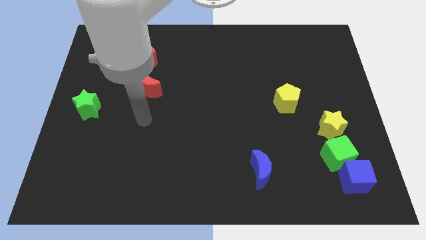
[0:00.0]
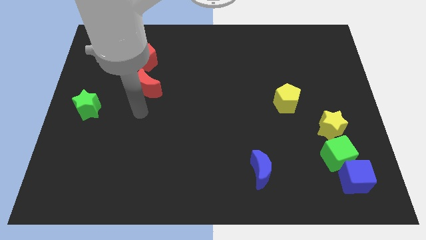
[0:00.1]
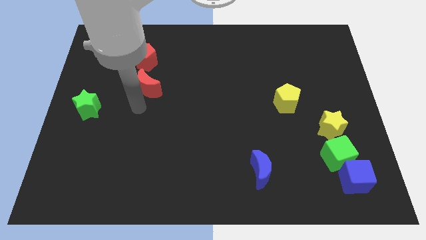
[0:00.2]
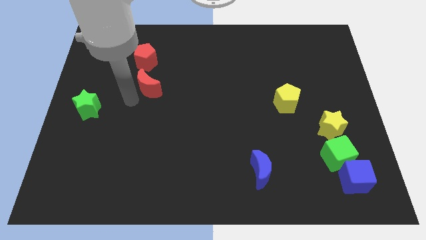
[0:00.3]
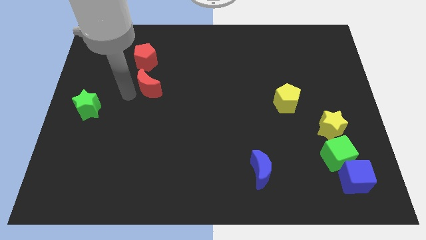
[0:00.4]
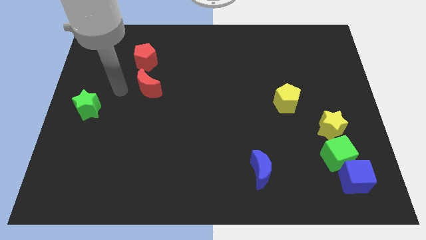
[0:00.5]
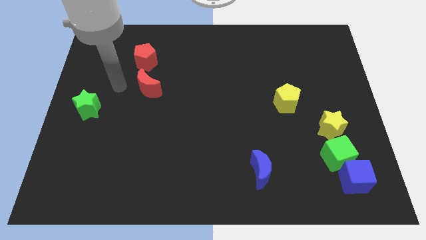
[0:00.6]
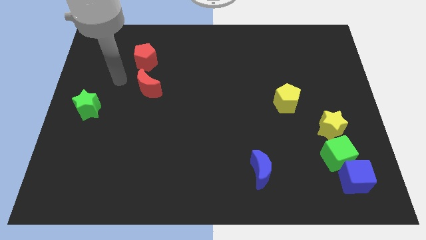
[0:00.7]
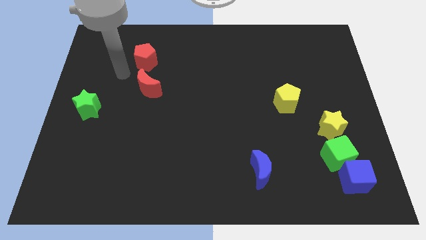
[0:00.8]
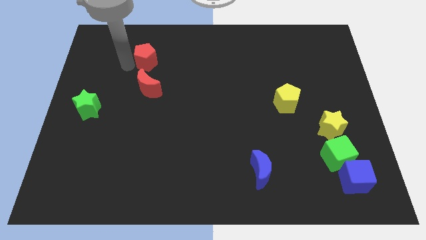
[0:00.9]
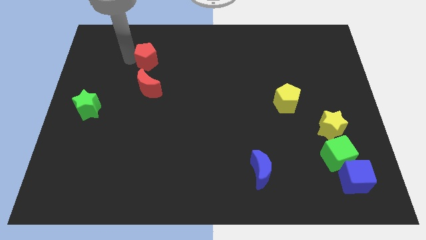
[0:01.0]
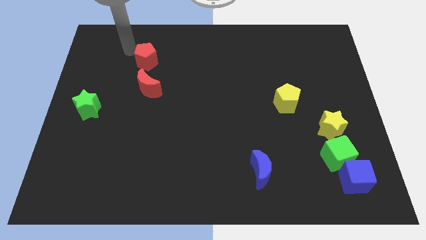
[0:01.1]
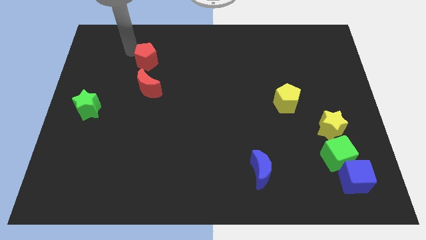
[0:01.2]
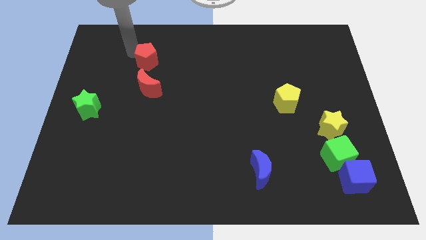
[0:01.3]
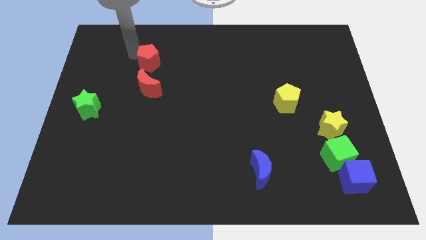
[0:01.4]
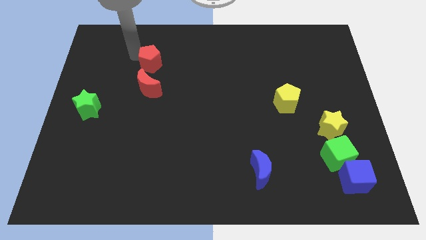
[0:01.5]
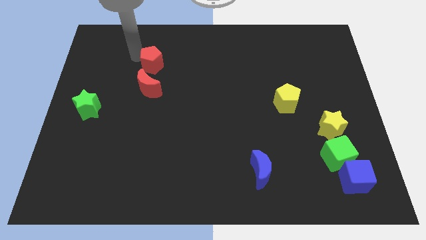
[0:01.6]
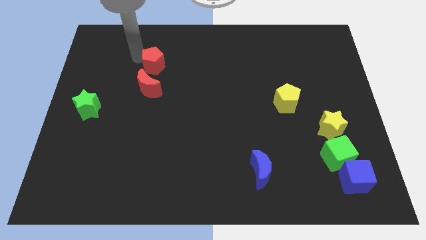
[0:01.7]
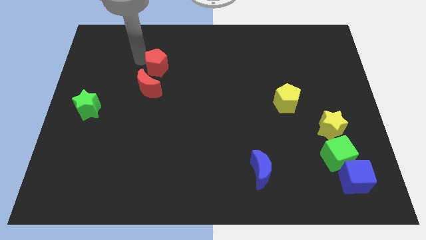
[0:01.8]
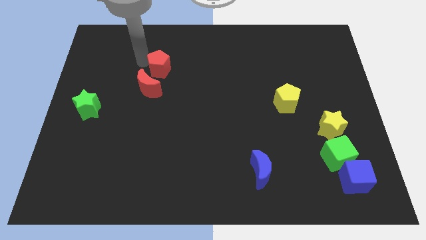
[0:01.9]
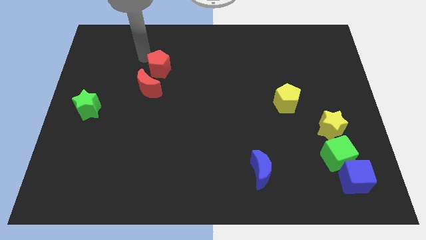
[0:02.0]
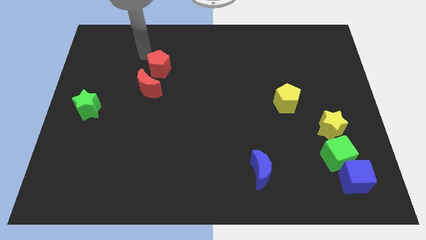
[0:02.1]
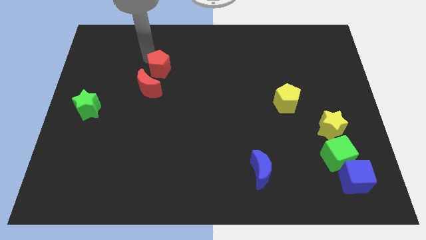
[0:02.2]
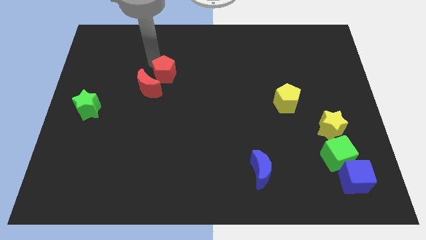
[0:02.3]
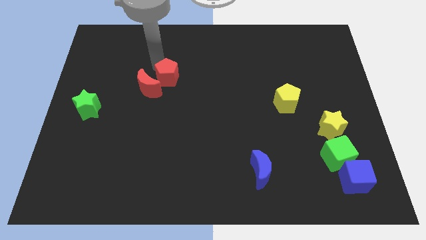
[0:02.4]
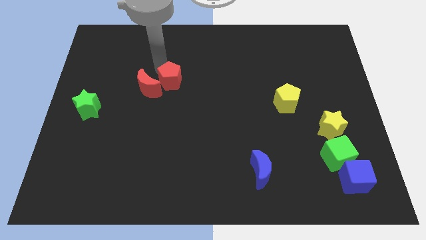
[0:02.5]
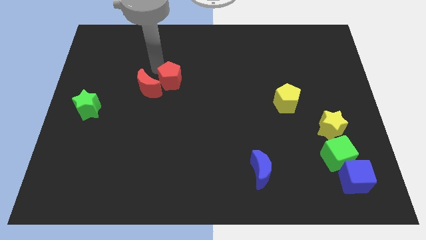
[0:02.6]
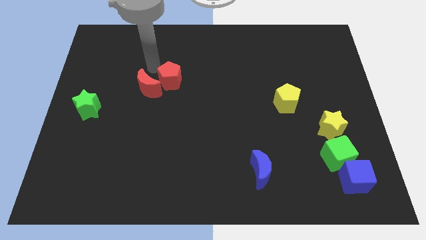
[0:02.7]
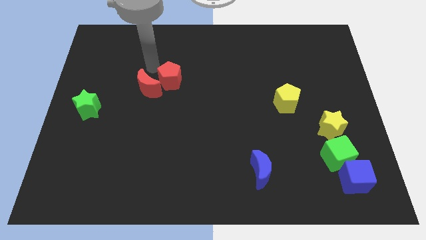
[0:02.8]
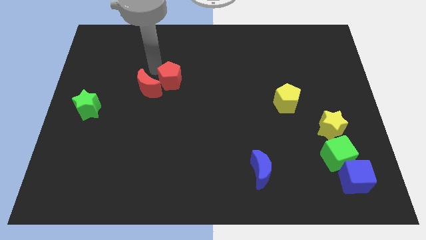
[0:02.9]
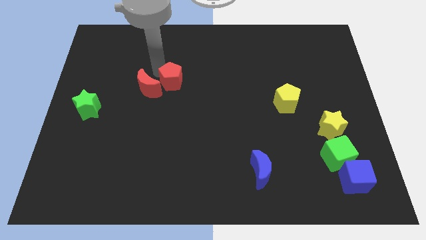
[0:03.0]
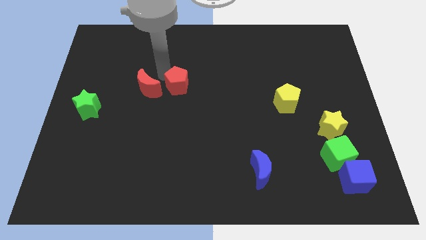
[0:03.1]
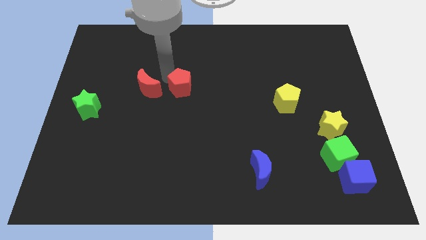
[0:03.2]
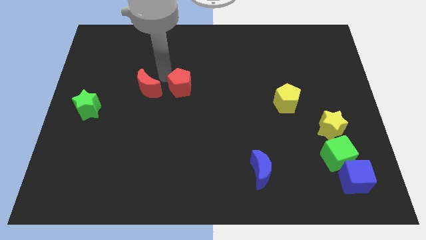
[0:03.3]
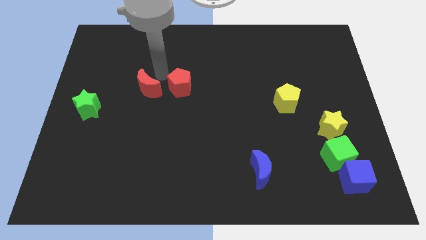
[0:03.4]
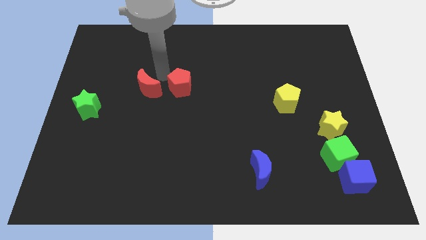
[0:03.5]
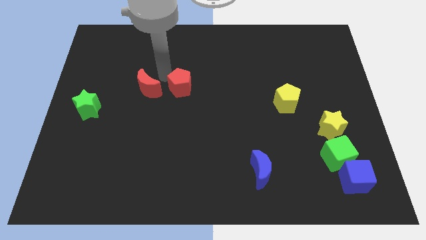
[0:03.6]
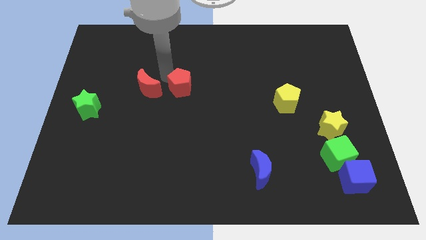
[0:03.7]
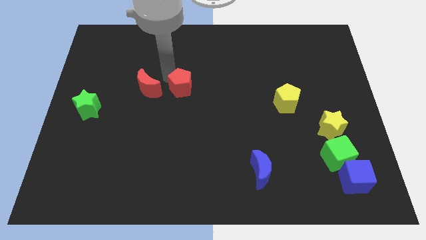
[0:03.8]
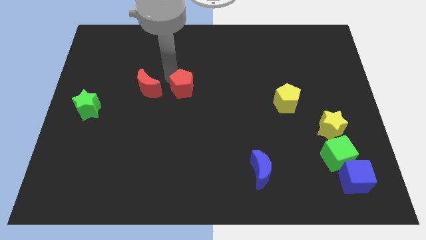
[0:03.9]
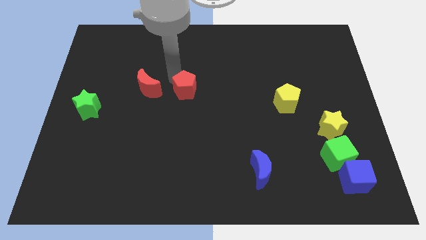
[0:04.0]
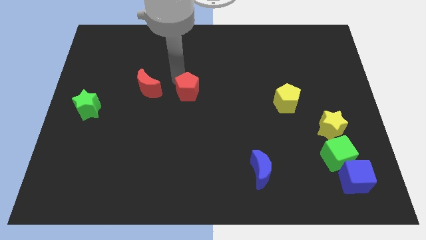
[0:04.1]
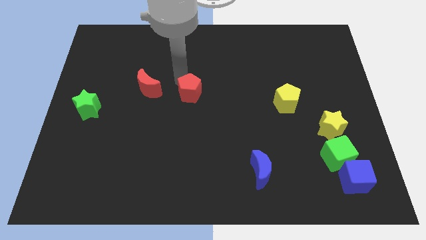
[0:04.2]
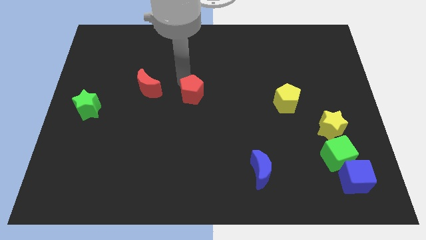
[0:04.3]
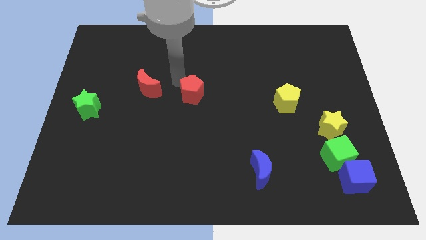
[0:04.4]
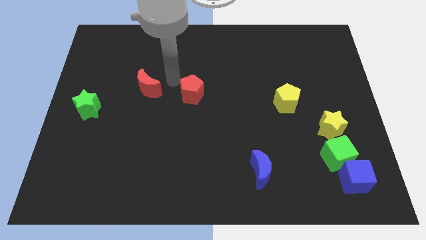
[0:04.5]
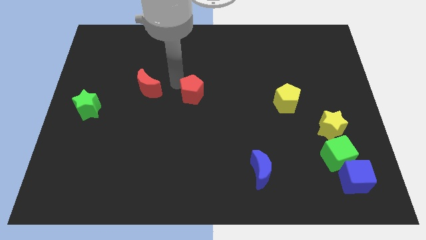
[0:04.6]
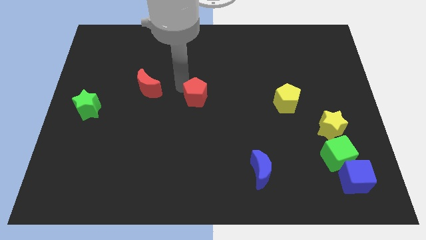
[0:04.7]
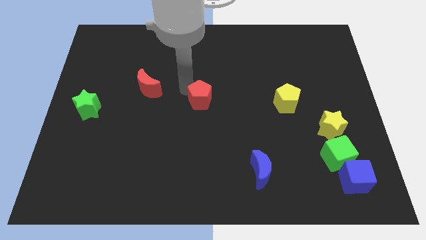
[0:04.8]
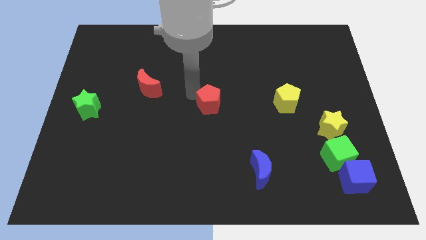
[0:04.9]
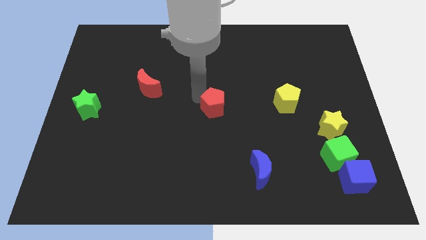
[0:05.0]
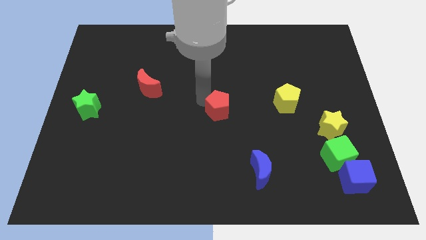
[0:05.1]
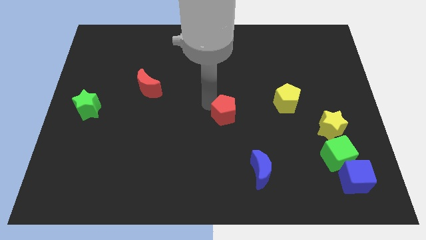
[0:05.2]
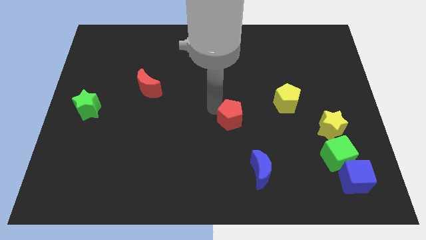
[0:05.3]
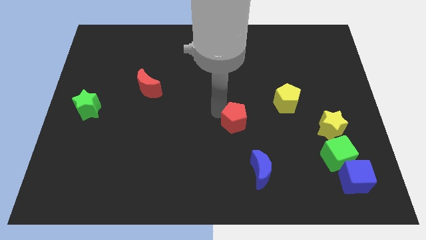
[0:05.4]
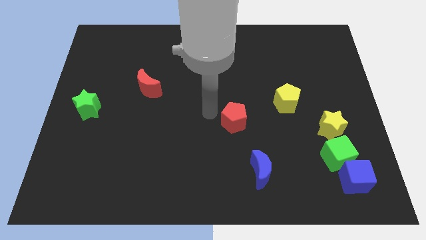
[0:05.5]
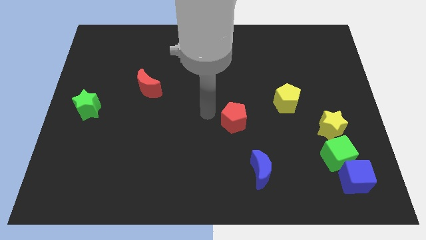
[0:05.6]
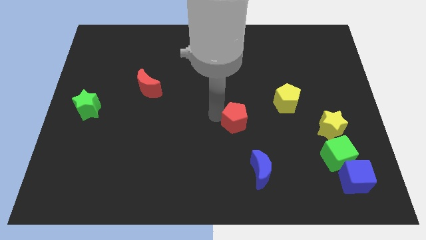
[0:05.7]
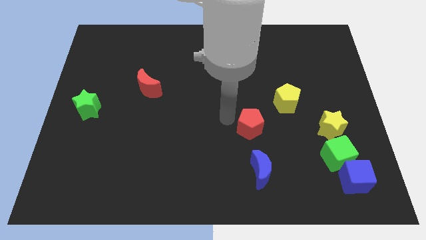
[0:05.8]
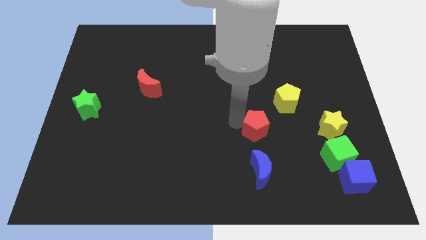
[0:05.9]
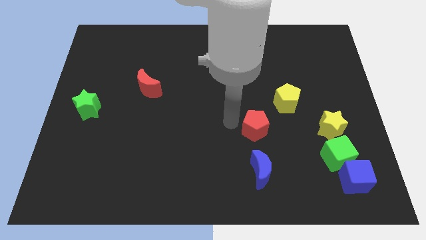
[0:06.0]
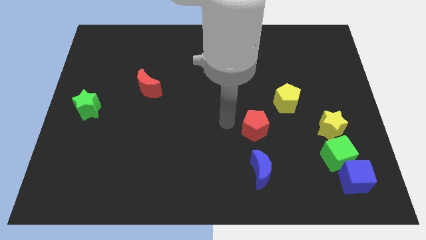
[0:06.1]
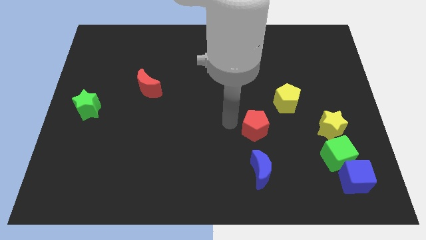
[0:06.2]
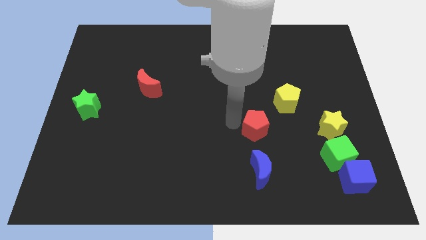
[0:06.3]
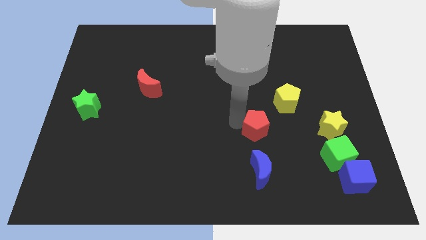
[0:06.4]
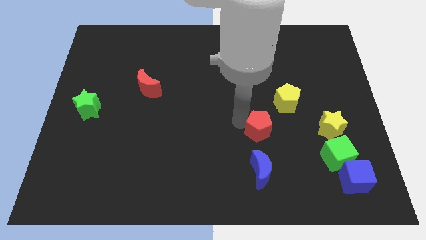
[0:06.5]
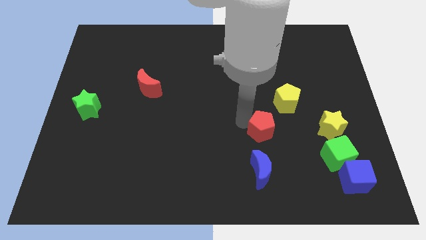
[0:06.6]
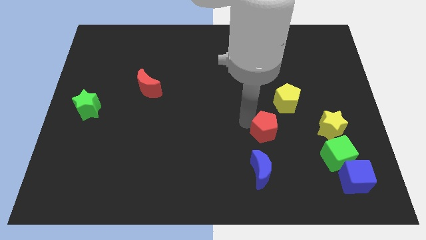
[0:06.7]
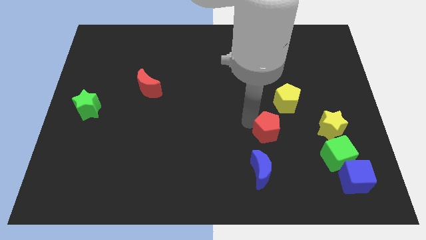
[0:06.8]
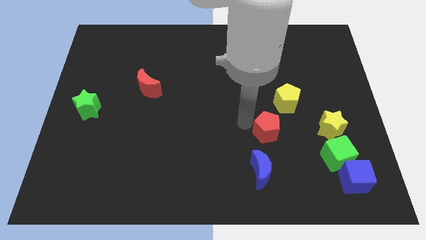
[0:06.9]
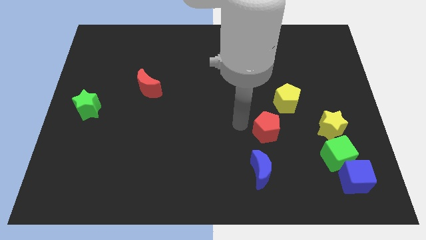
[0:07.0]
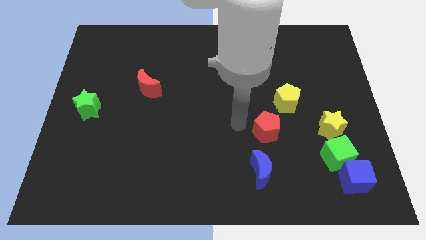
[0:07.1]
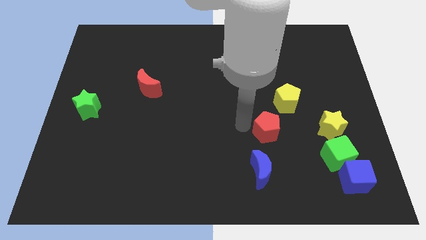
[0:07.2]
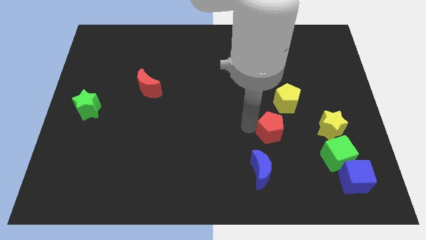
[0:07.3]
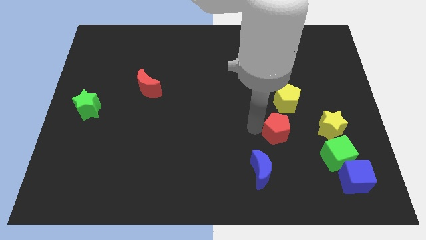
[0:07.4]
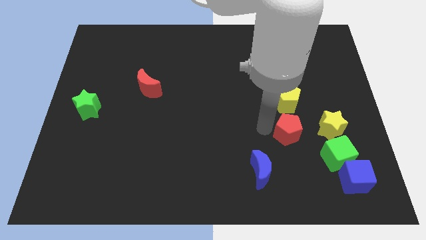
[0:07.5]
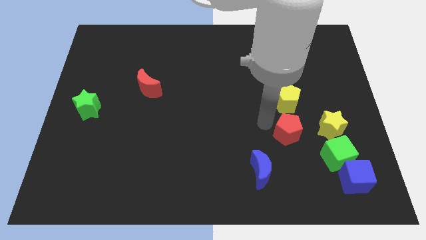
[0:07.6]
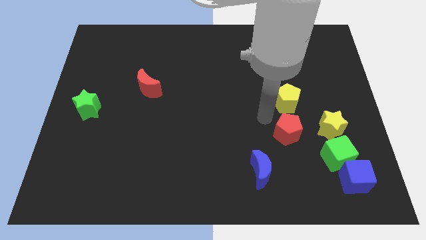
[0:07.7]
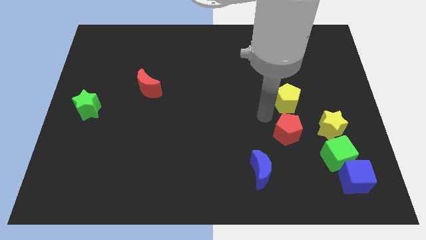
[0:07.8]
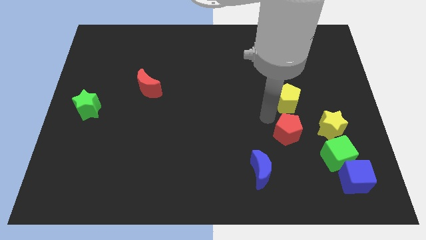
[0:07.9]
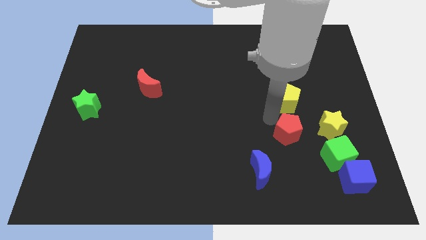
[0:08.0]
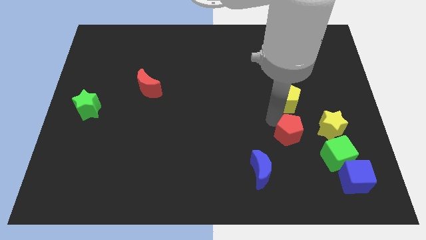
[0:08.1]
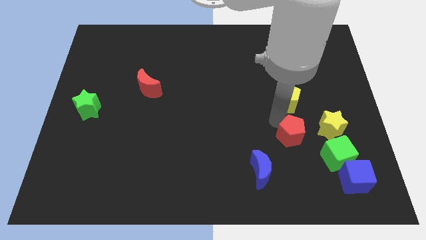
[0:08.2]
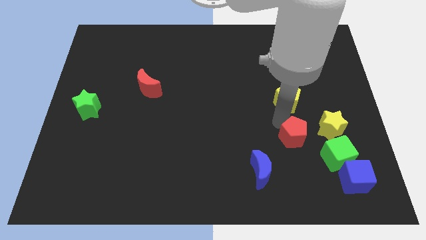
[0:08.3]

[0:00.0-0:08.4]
move the red pentagon diagonally down and to the left of the yellow star
